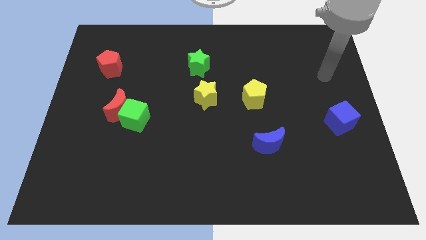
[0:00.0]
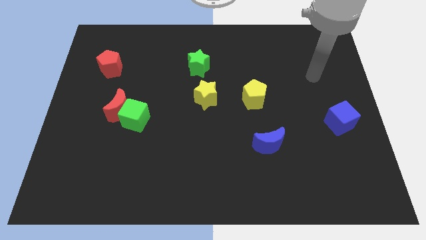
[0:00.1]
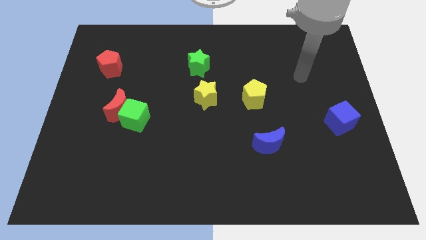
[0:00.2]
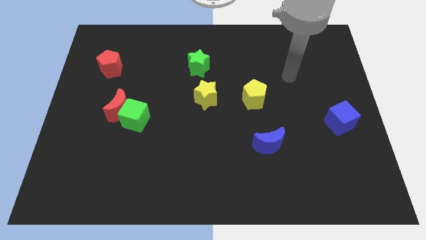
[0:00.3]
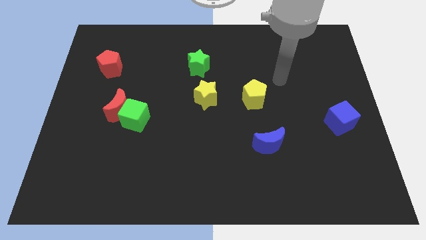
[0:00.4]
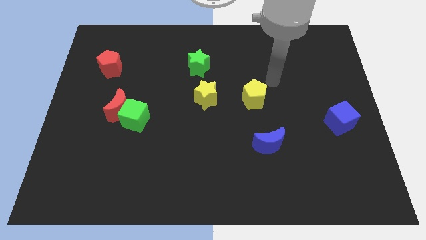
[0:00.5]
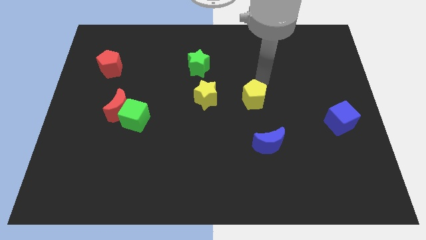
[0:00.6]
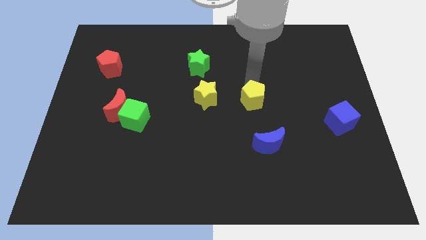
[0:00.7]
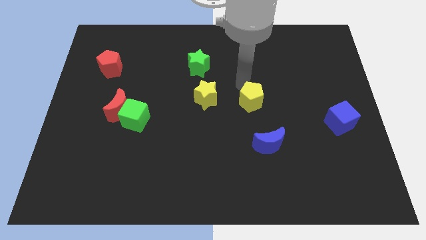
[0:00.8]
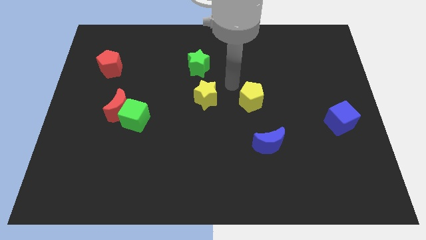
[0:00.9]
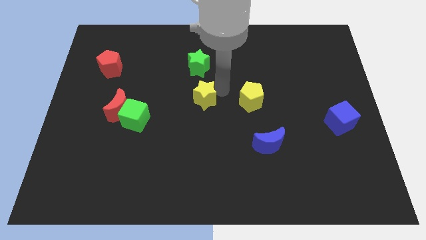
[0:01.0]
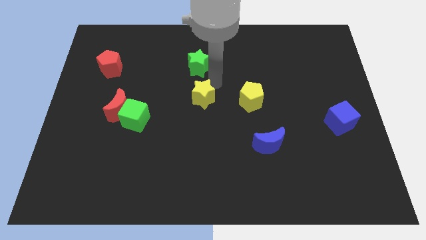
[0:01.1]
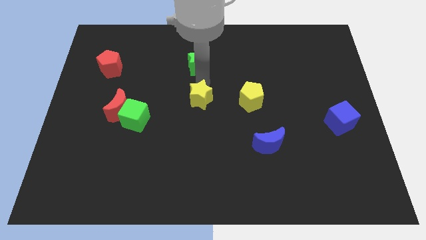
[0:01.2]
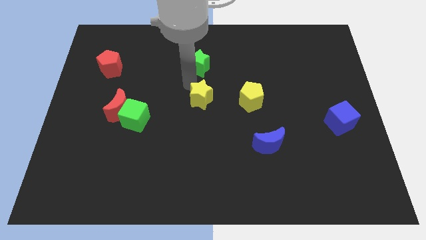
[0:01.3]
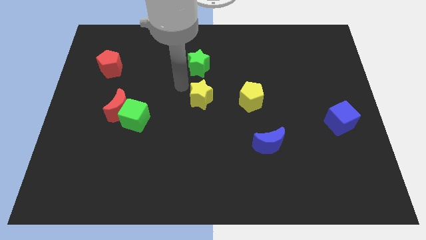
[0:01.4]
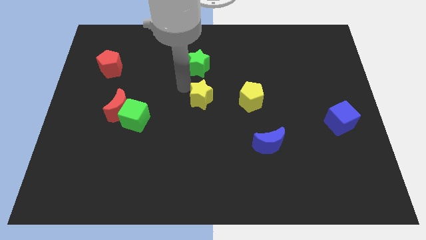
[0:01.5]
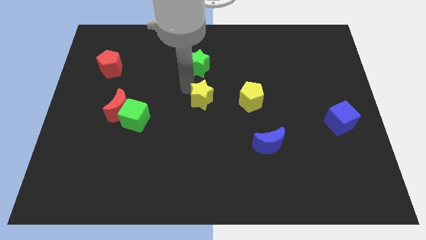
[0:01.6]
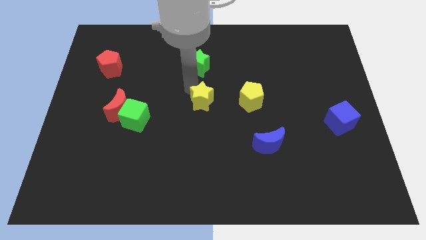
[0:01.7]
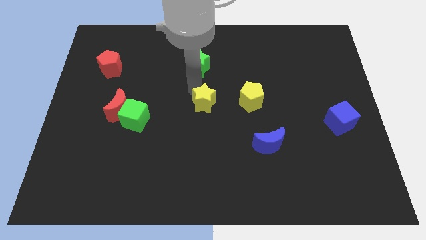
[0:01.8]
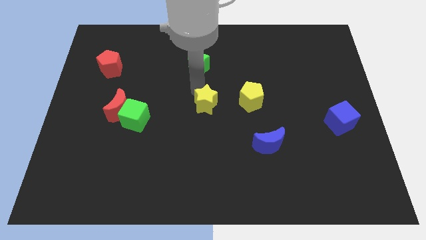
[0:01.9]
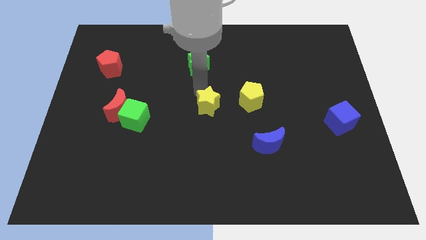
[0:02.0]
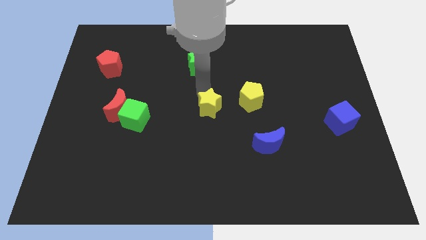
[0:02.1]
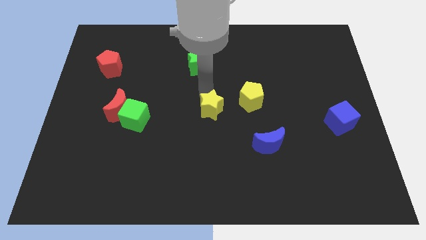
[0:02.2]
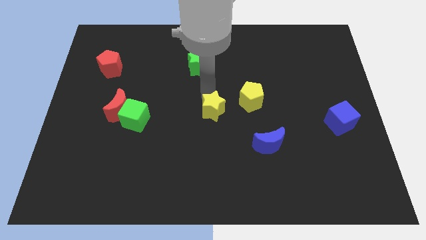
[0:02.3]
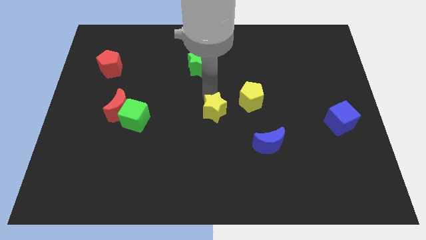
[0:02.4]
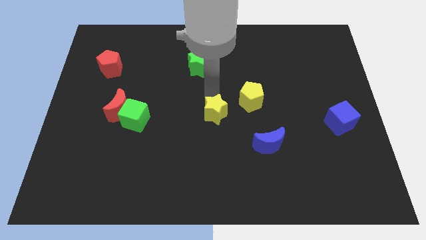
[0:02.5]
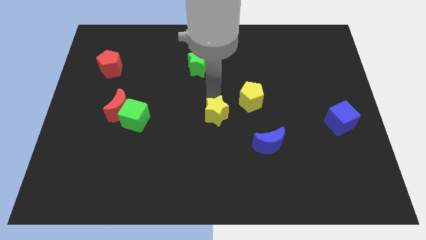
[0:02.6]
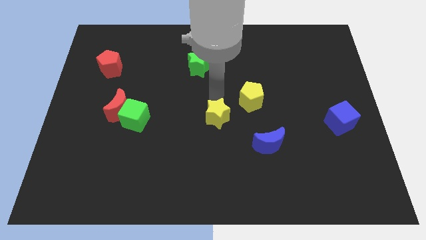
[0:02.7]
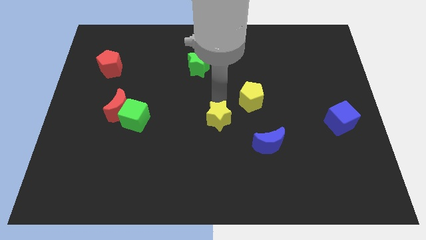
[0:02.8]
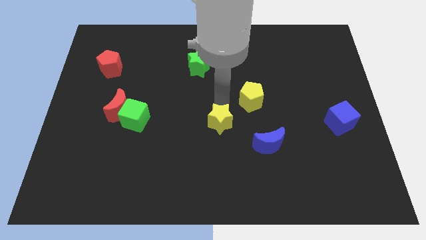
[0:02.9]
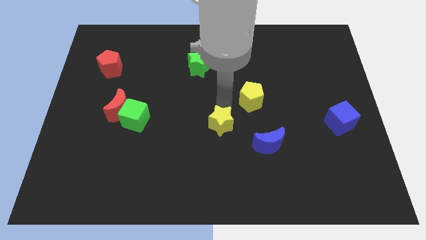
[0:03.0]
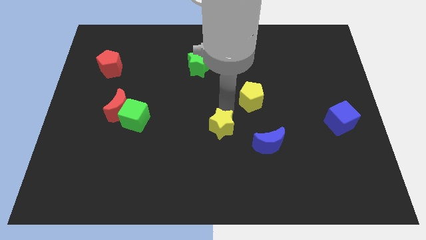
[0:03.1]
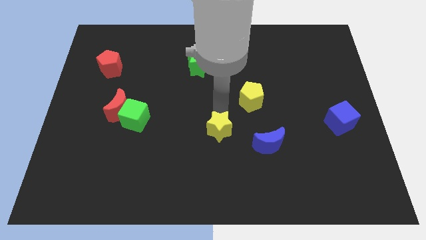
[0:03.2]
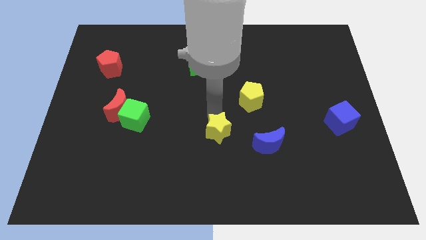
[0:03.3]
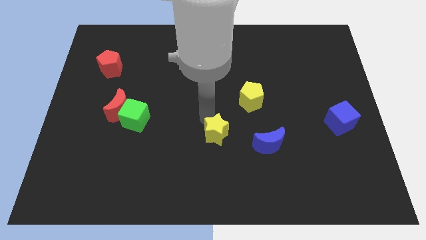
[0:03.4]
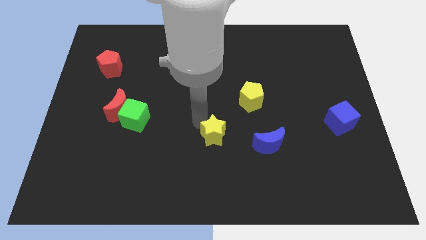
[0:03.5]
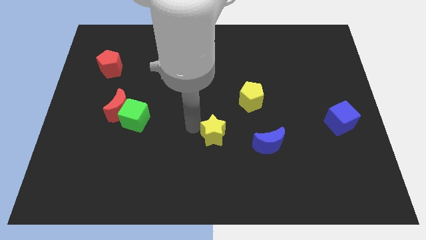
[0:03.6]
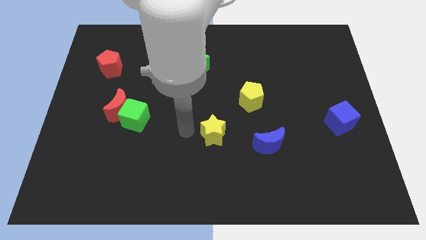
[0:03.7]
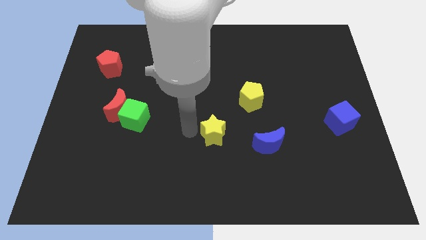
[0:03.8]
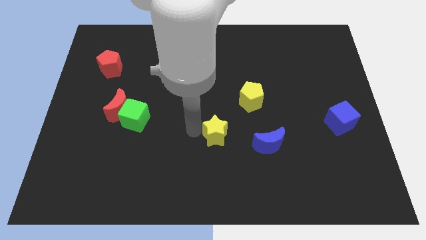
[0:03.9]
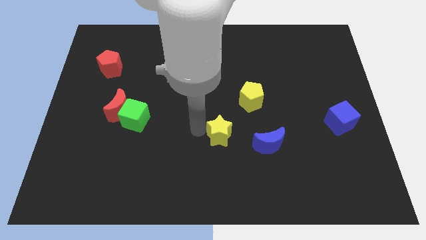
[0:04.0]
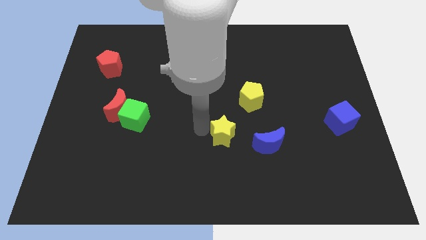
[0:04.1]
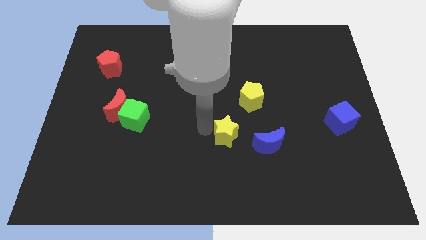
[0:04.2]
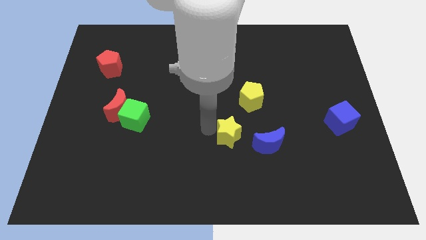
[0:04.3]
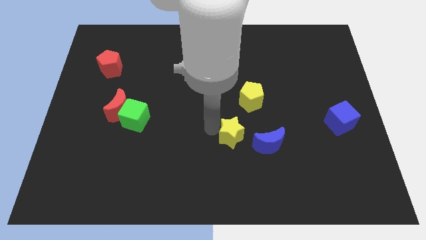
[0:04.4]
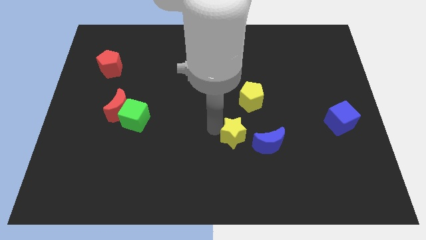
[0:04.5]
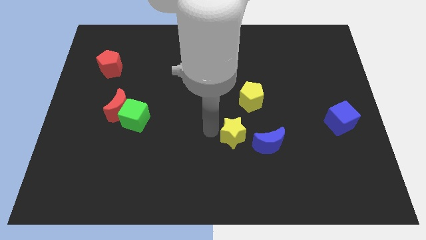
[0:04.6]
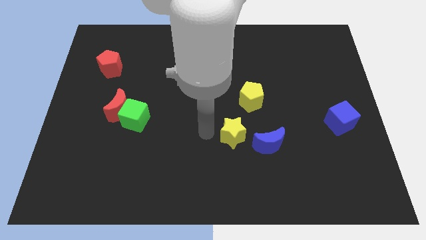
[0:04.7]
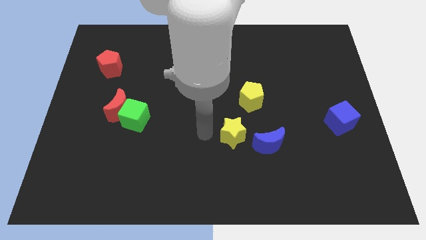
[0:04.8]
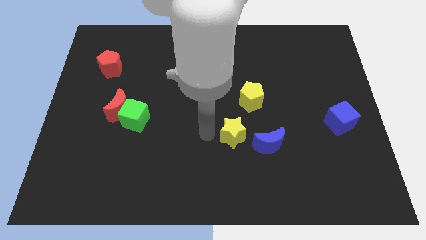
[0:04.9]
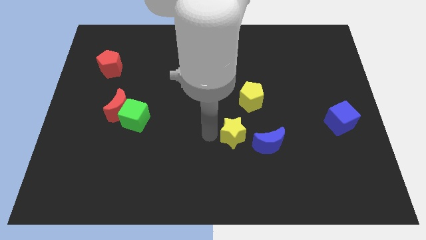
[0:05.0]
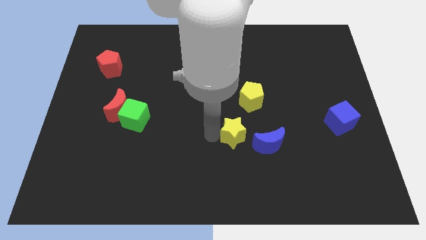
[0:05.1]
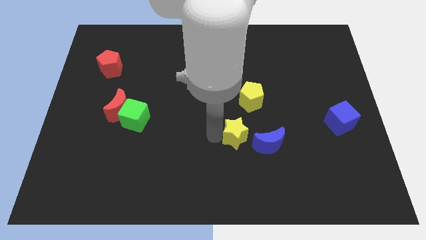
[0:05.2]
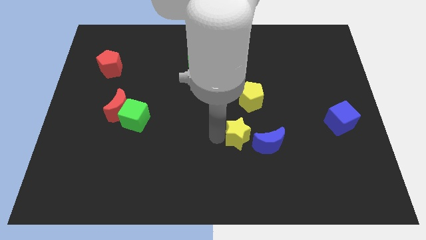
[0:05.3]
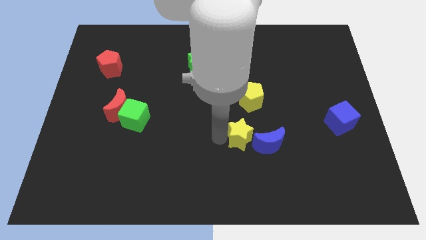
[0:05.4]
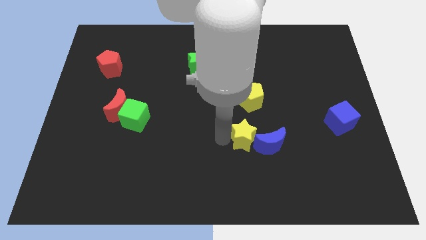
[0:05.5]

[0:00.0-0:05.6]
move the yellow star to the blue moon

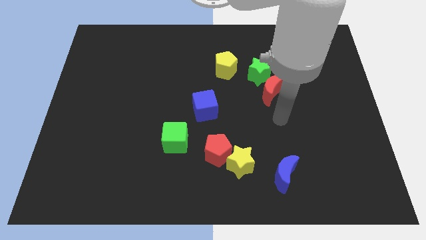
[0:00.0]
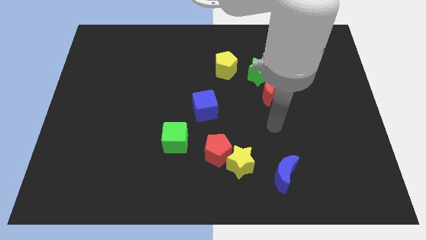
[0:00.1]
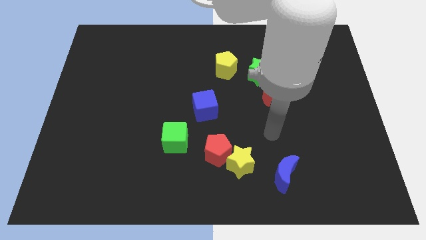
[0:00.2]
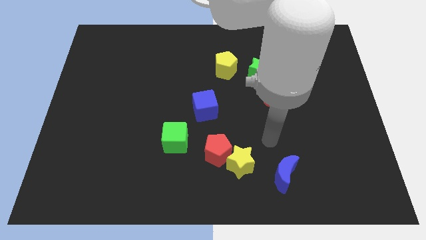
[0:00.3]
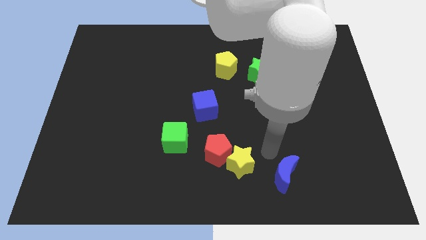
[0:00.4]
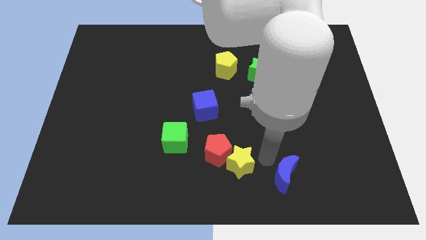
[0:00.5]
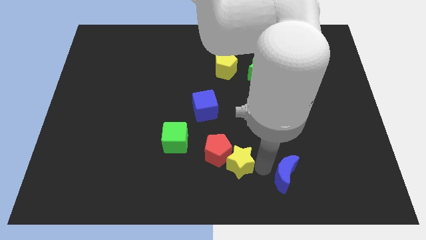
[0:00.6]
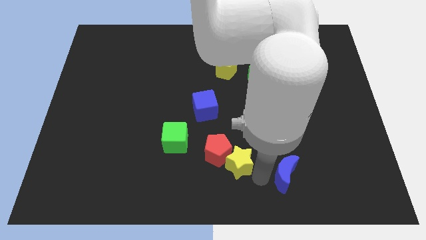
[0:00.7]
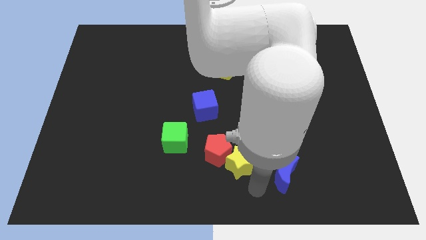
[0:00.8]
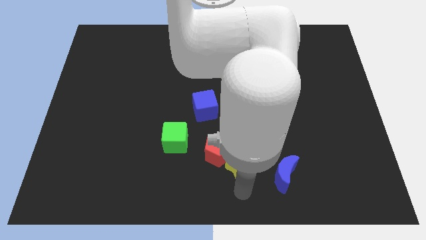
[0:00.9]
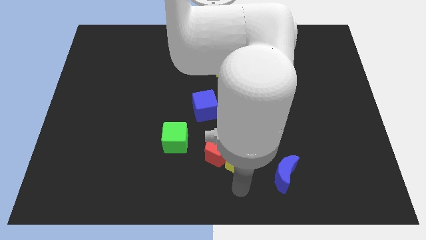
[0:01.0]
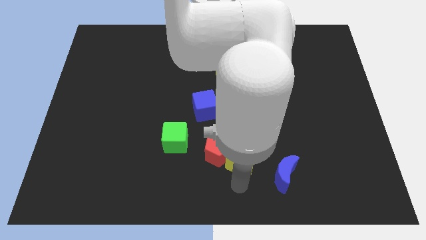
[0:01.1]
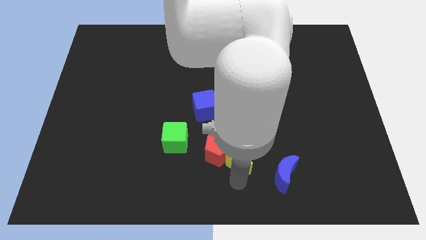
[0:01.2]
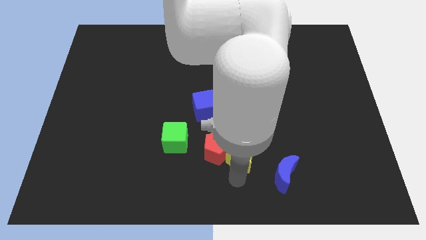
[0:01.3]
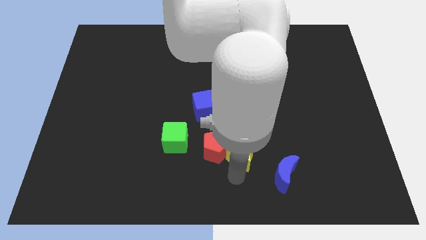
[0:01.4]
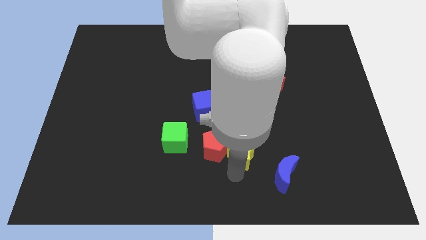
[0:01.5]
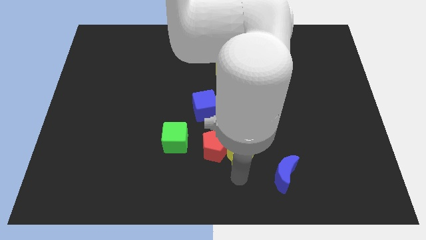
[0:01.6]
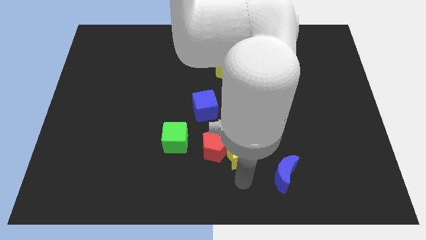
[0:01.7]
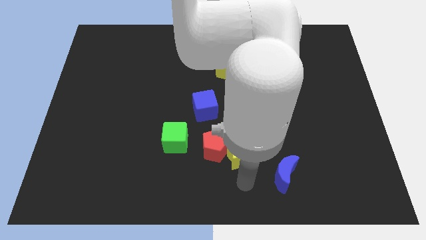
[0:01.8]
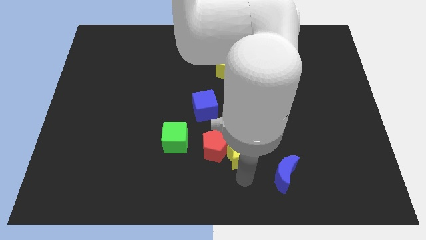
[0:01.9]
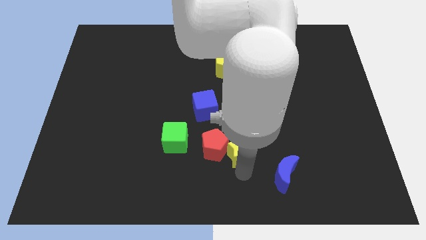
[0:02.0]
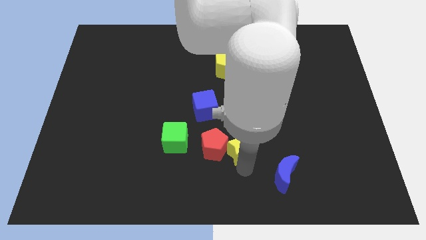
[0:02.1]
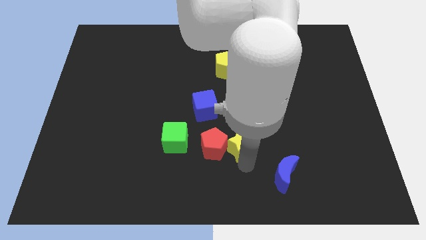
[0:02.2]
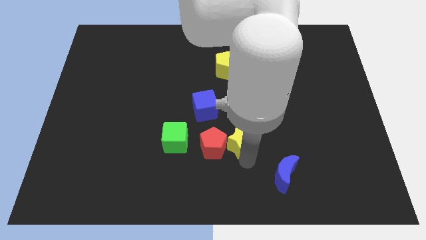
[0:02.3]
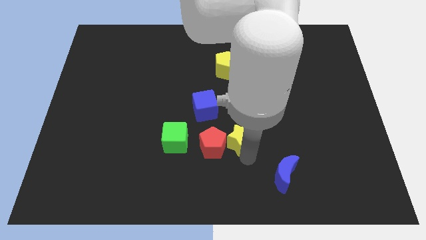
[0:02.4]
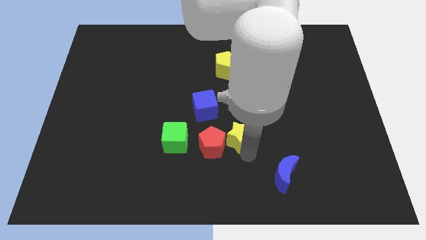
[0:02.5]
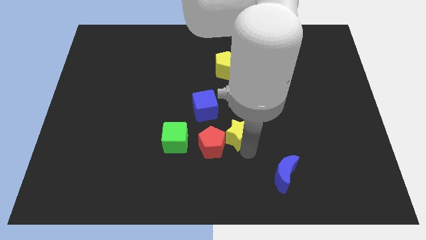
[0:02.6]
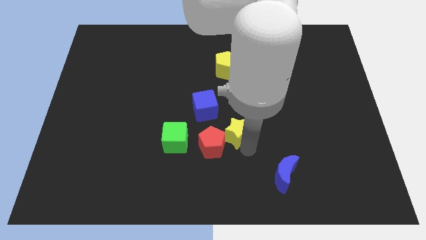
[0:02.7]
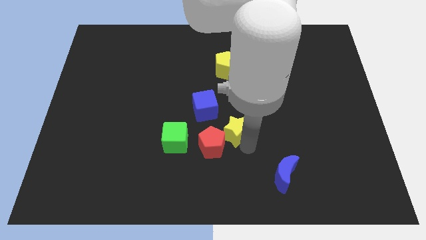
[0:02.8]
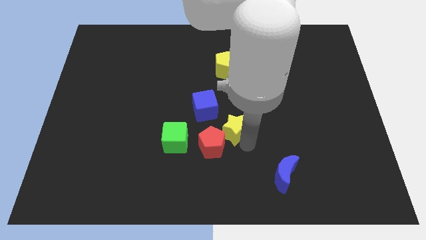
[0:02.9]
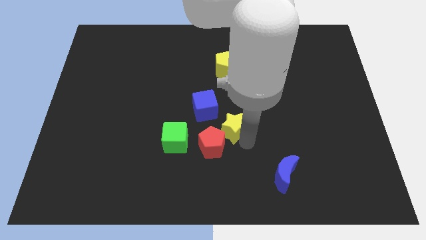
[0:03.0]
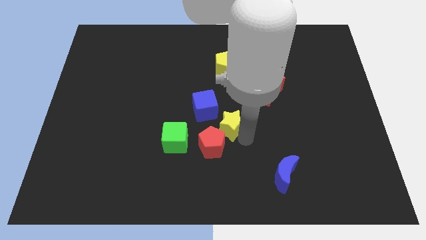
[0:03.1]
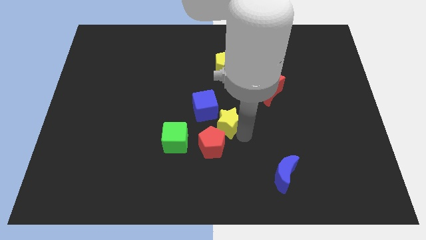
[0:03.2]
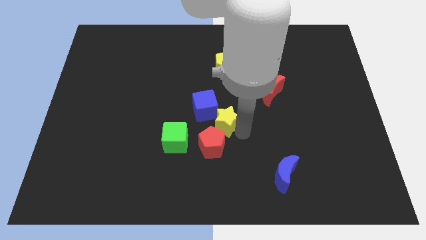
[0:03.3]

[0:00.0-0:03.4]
move the yellow star to the blue cube
